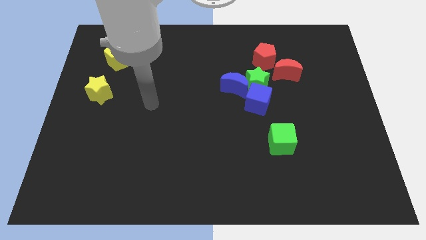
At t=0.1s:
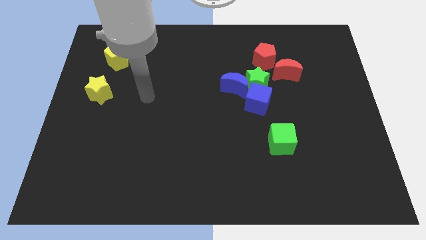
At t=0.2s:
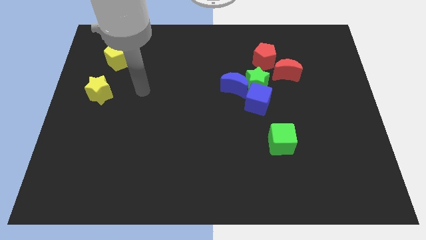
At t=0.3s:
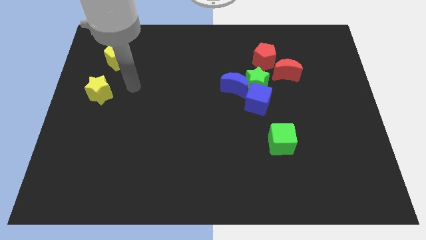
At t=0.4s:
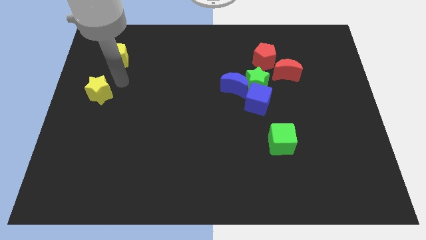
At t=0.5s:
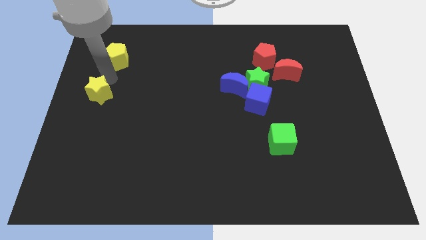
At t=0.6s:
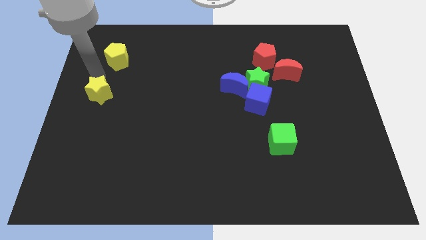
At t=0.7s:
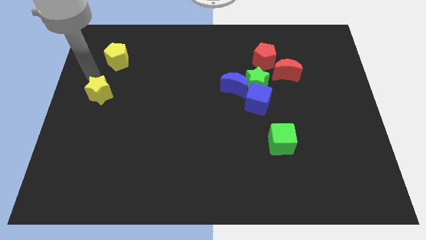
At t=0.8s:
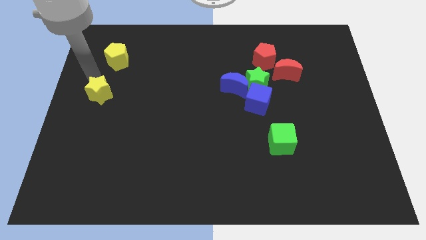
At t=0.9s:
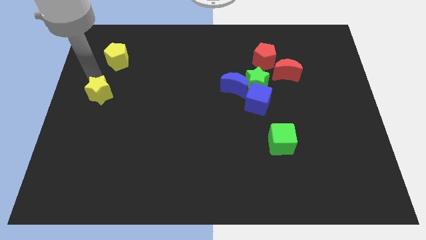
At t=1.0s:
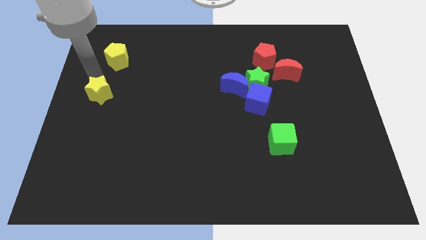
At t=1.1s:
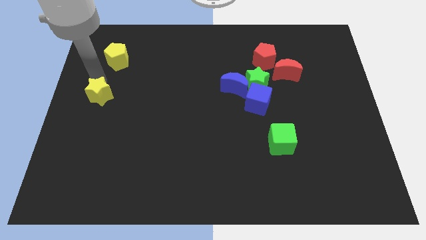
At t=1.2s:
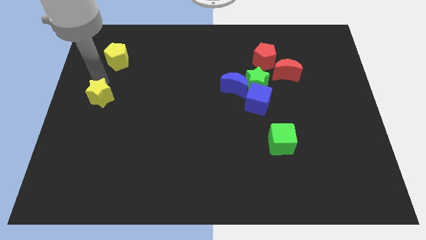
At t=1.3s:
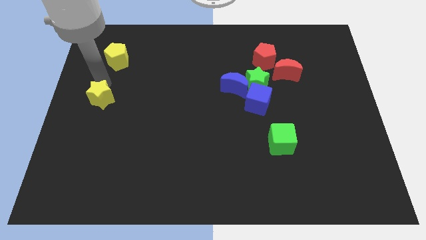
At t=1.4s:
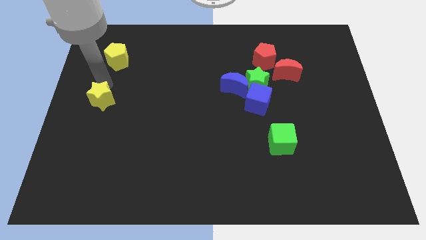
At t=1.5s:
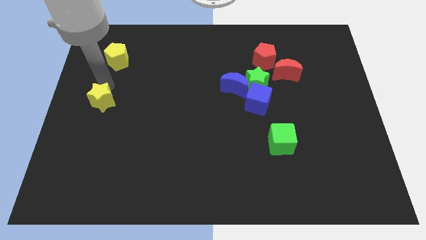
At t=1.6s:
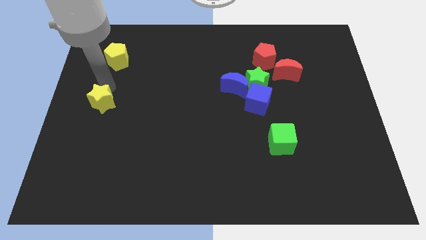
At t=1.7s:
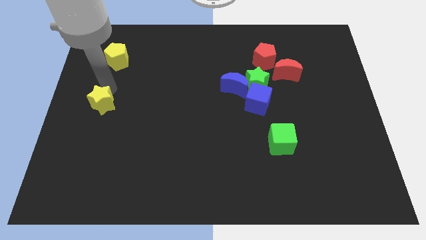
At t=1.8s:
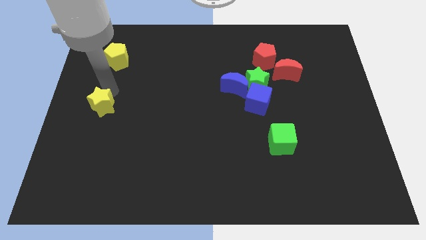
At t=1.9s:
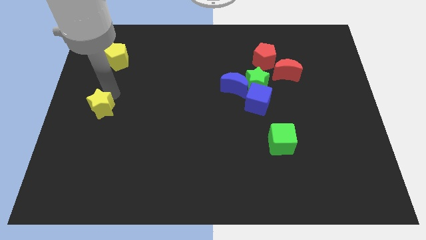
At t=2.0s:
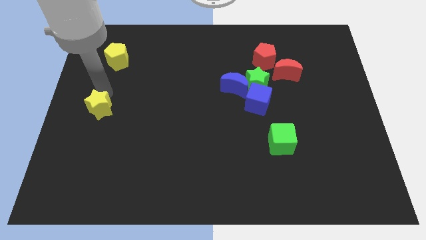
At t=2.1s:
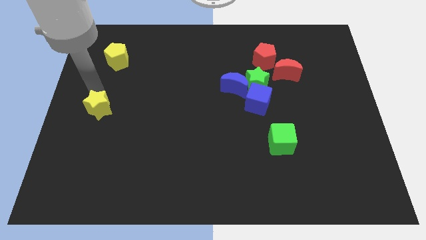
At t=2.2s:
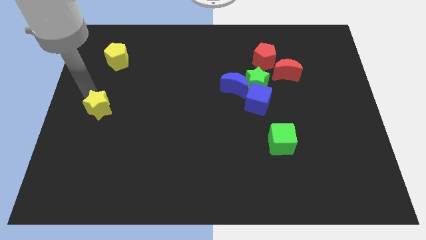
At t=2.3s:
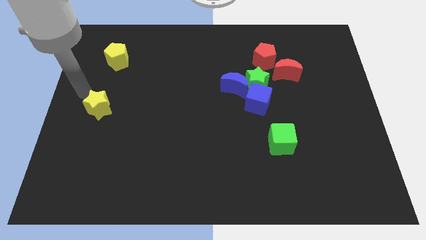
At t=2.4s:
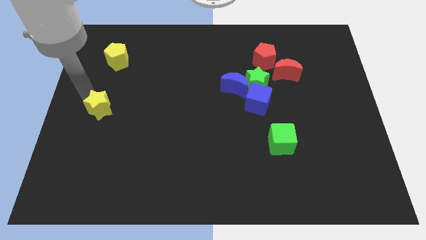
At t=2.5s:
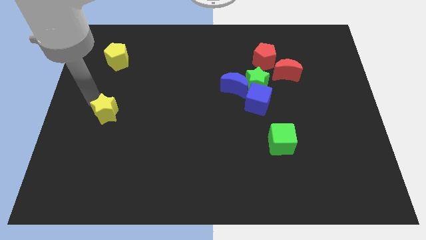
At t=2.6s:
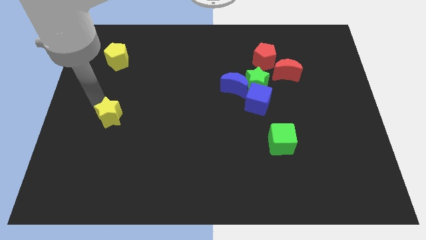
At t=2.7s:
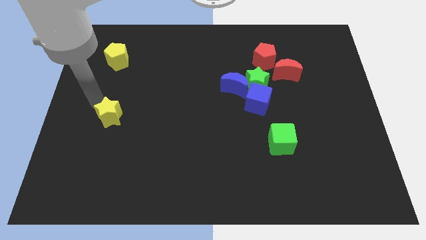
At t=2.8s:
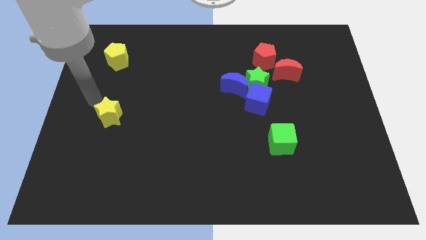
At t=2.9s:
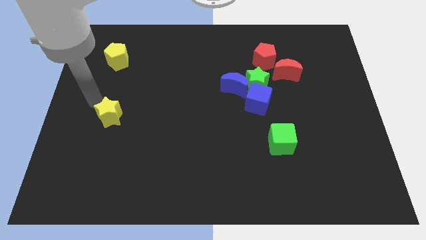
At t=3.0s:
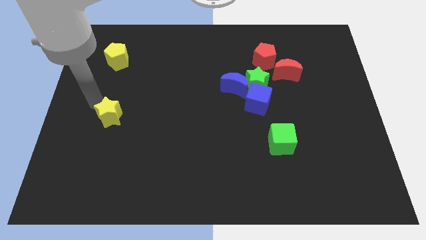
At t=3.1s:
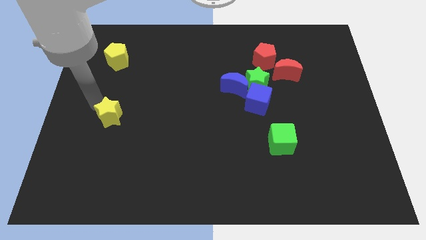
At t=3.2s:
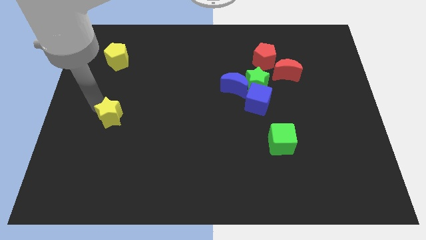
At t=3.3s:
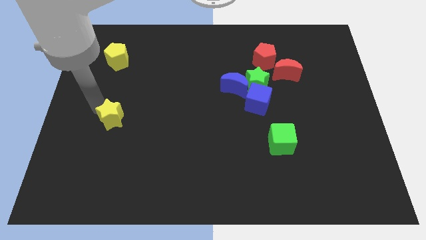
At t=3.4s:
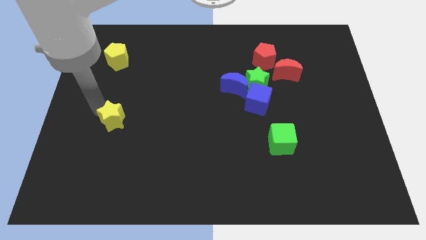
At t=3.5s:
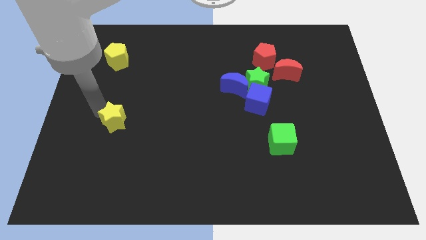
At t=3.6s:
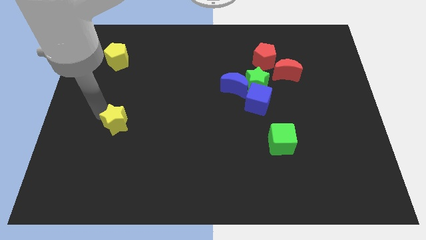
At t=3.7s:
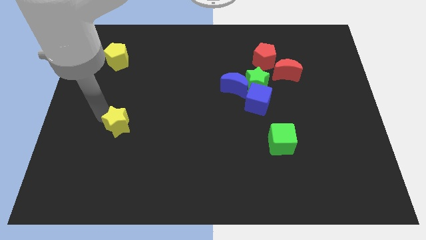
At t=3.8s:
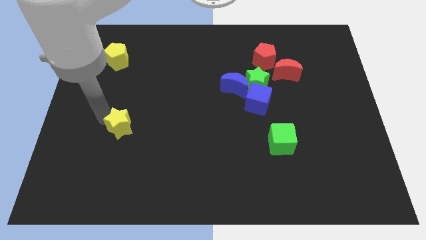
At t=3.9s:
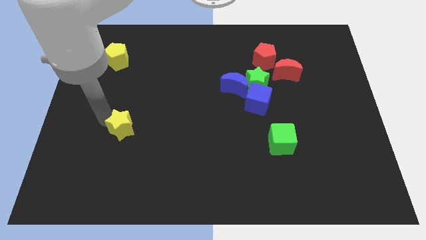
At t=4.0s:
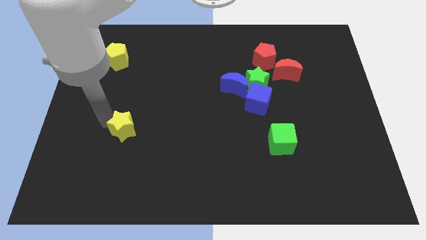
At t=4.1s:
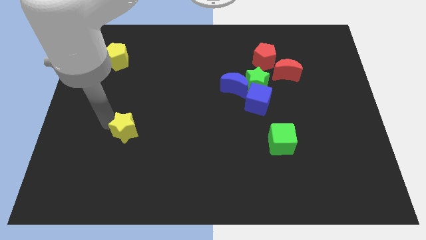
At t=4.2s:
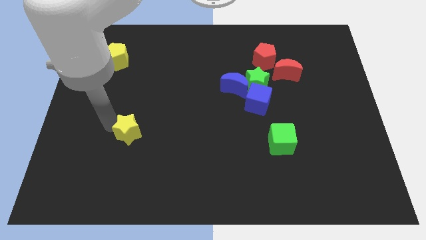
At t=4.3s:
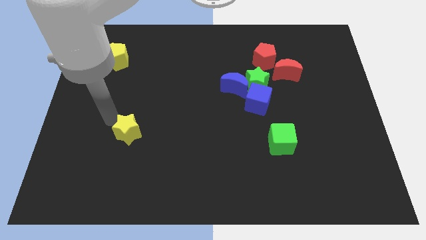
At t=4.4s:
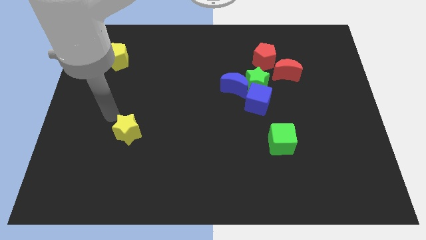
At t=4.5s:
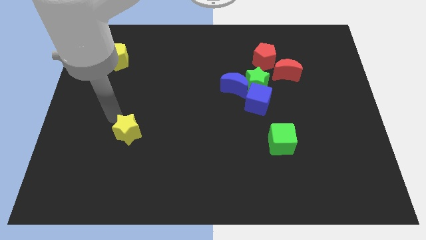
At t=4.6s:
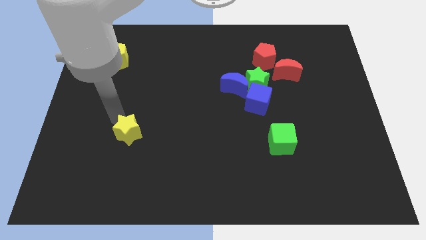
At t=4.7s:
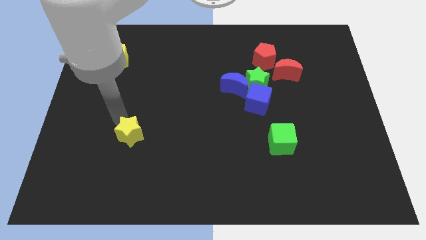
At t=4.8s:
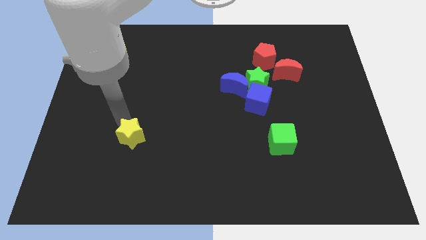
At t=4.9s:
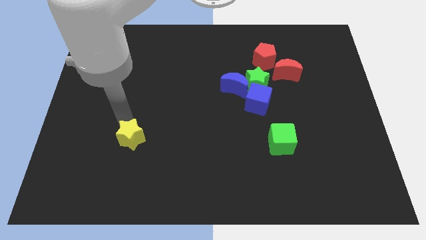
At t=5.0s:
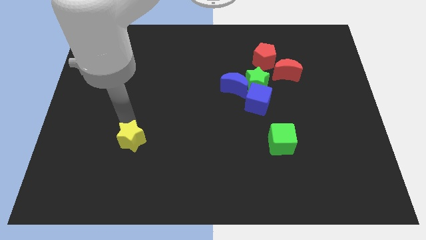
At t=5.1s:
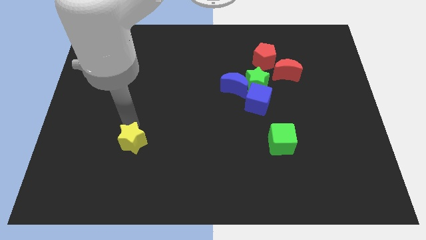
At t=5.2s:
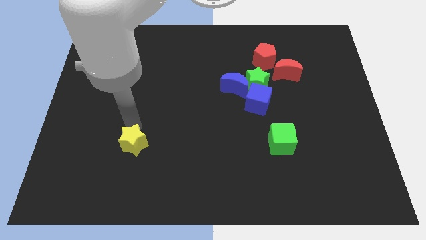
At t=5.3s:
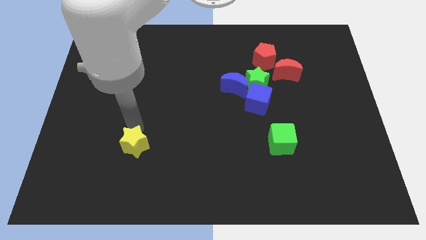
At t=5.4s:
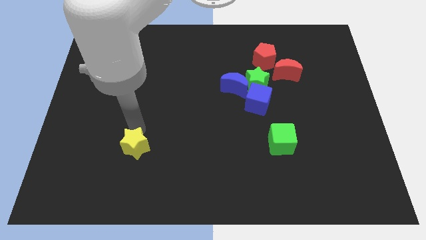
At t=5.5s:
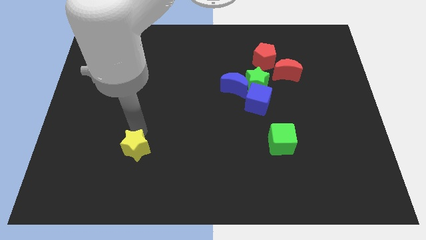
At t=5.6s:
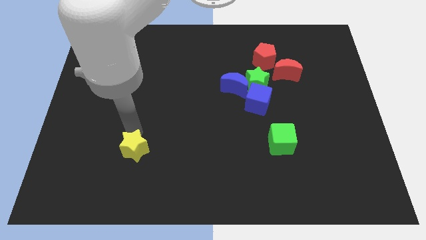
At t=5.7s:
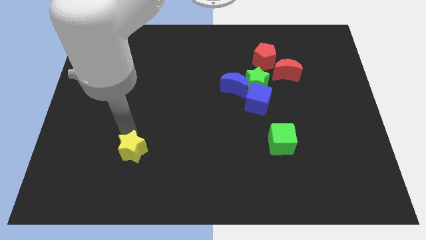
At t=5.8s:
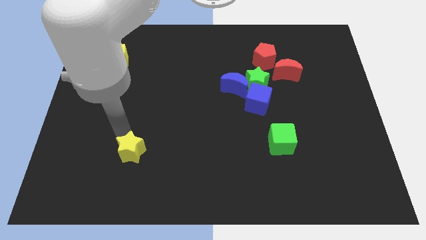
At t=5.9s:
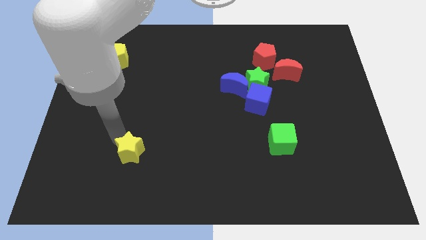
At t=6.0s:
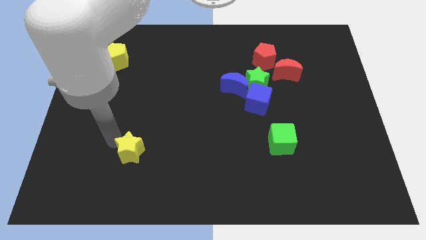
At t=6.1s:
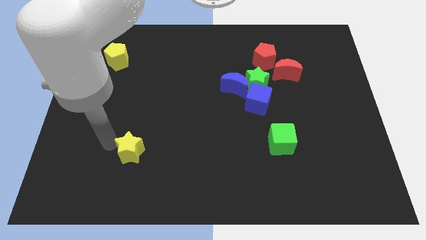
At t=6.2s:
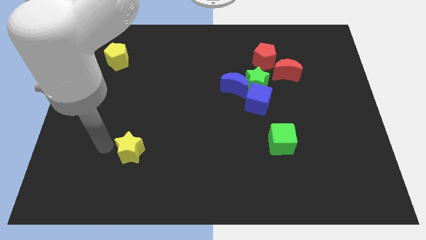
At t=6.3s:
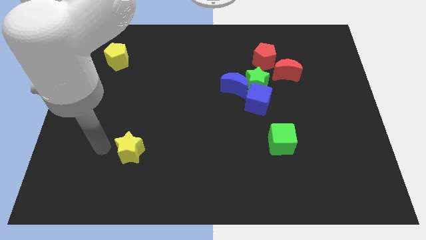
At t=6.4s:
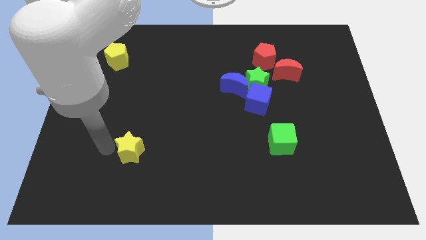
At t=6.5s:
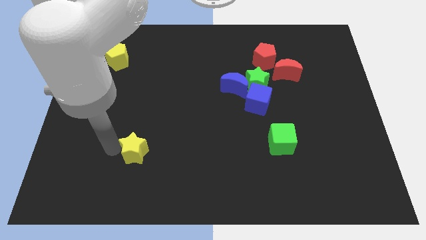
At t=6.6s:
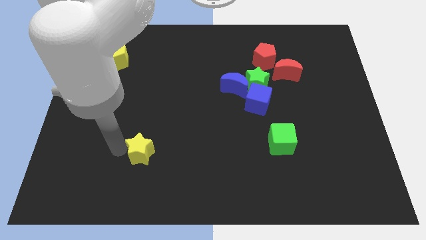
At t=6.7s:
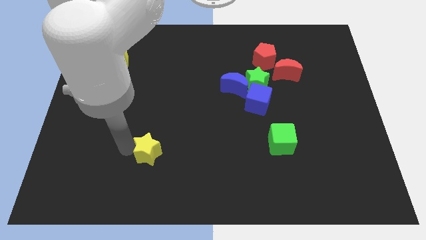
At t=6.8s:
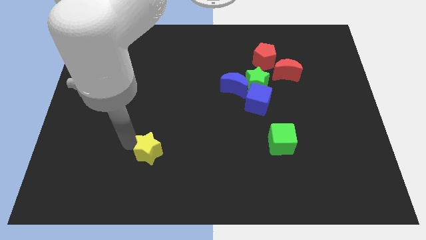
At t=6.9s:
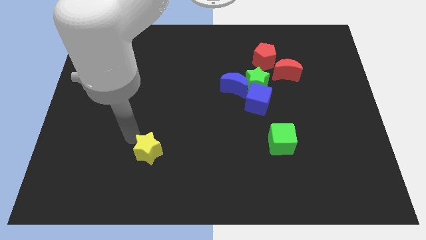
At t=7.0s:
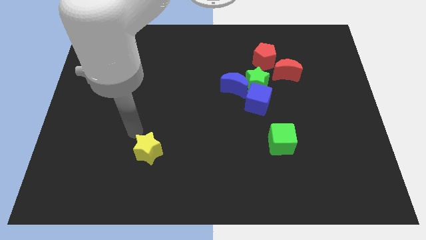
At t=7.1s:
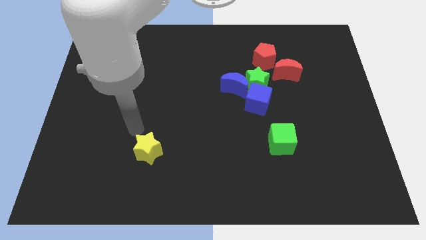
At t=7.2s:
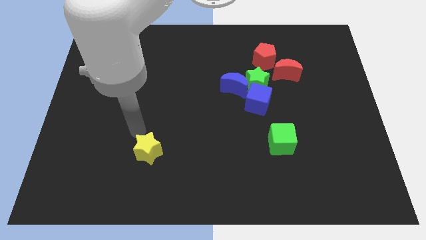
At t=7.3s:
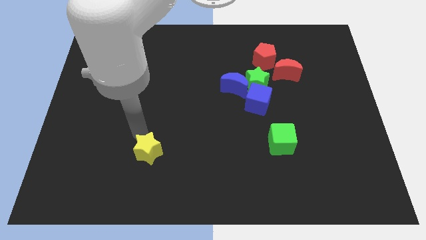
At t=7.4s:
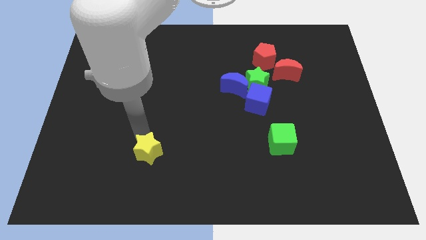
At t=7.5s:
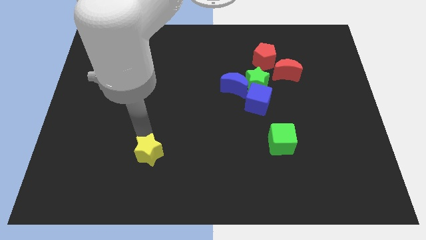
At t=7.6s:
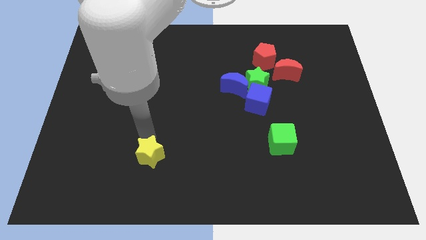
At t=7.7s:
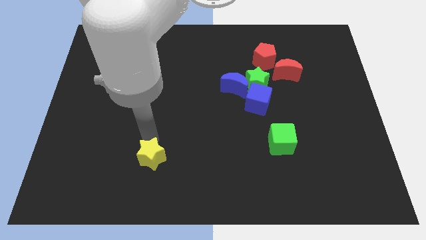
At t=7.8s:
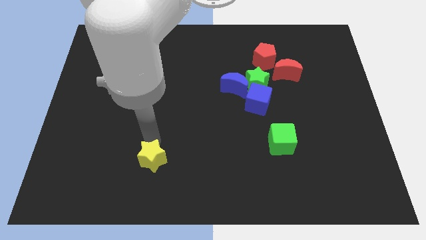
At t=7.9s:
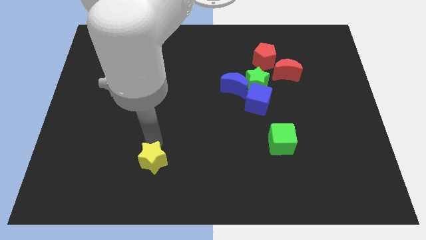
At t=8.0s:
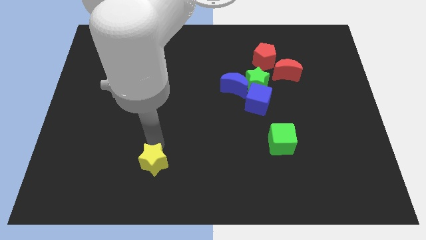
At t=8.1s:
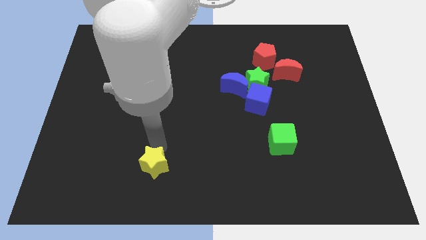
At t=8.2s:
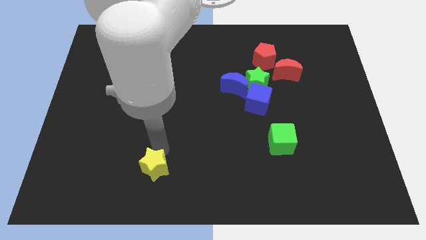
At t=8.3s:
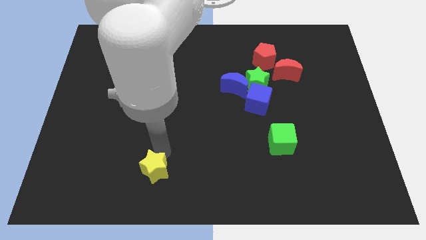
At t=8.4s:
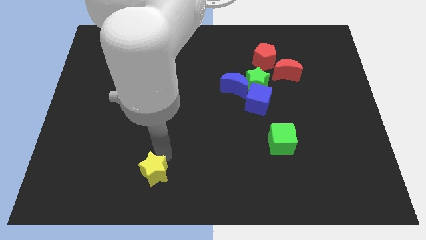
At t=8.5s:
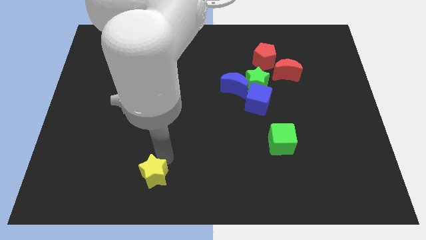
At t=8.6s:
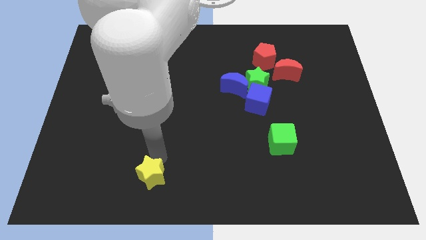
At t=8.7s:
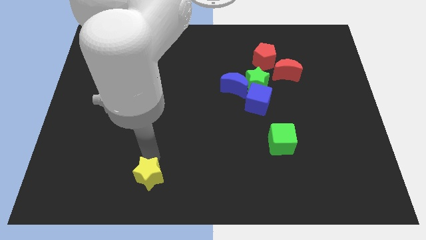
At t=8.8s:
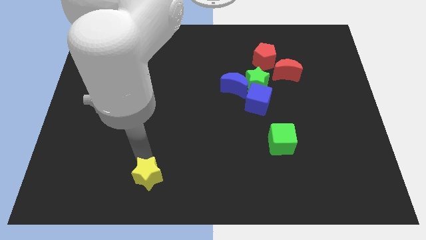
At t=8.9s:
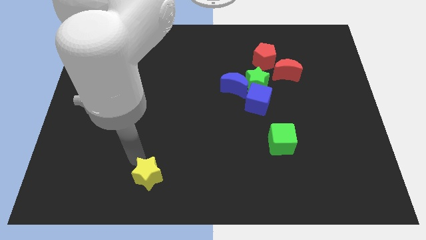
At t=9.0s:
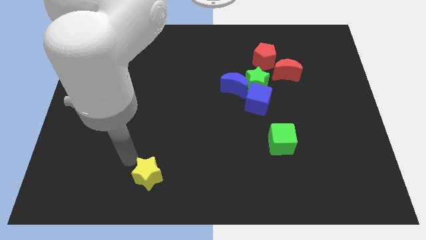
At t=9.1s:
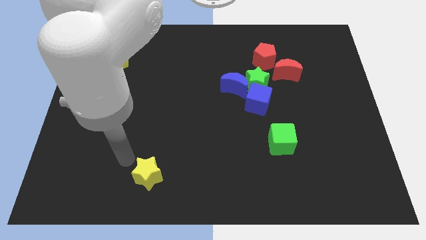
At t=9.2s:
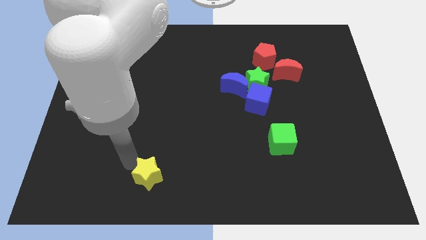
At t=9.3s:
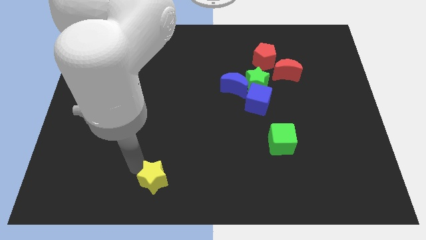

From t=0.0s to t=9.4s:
push the yellow star to the bottom side
